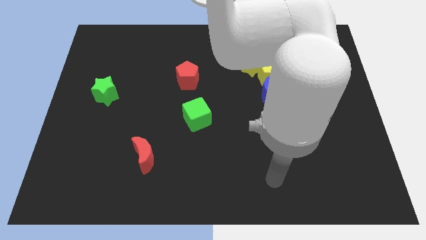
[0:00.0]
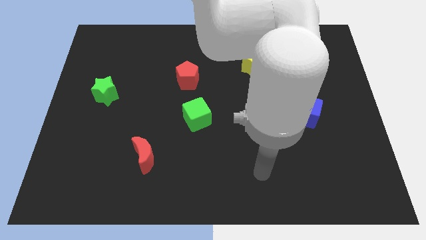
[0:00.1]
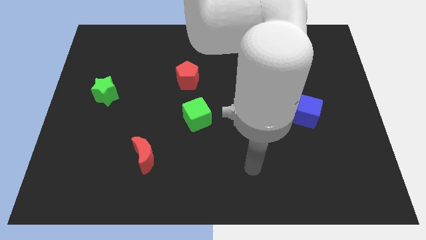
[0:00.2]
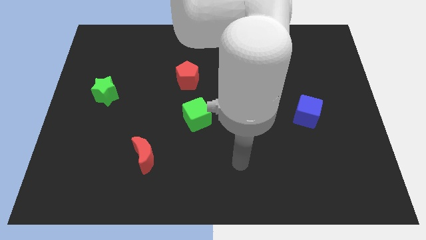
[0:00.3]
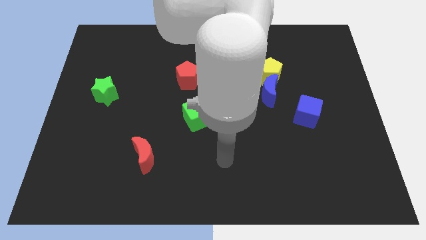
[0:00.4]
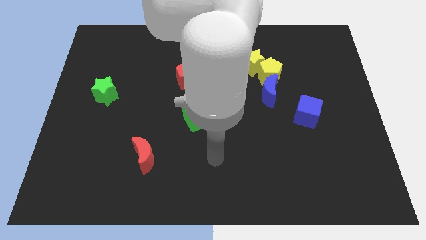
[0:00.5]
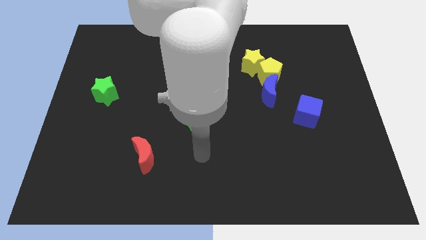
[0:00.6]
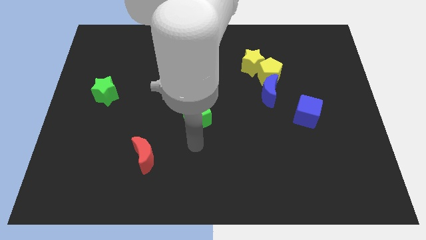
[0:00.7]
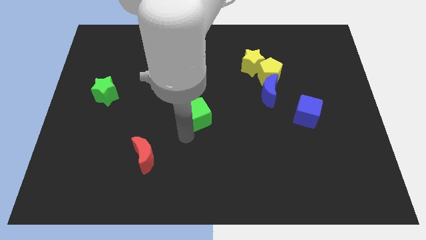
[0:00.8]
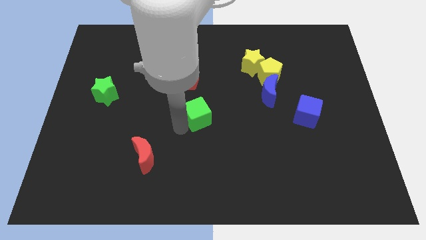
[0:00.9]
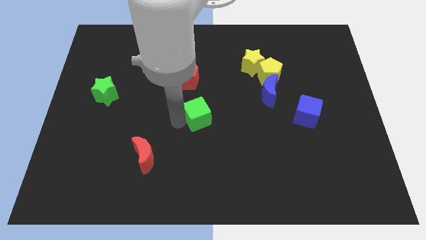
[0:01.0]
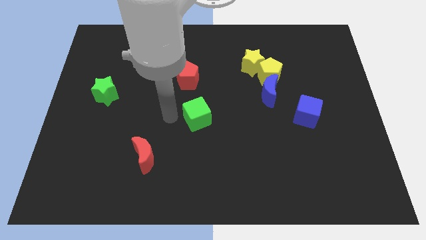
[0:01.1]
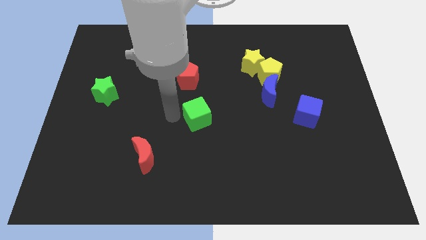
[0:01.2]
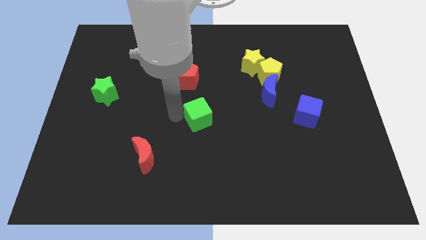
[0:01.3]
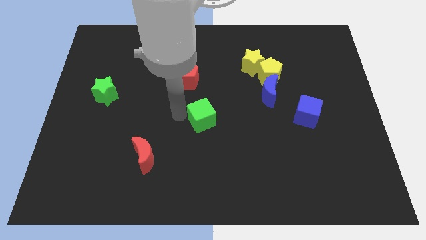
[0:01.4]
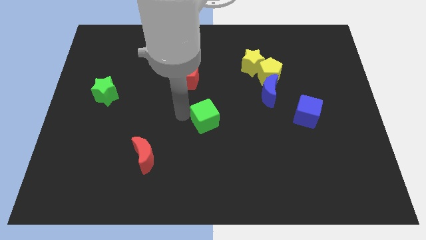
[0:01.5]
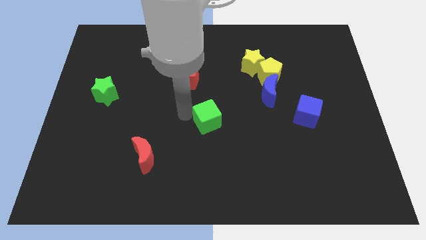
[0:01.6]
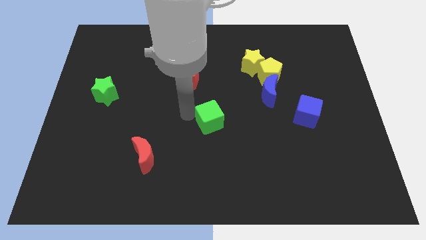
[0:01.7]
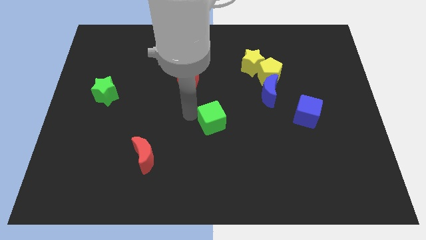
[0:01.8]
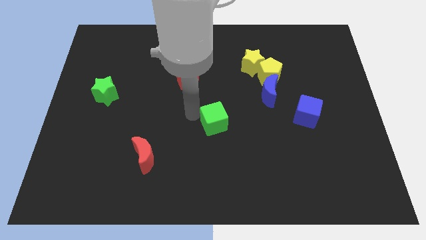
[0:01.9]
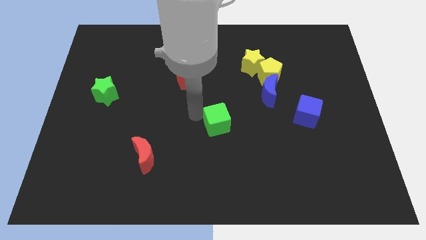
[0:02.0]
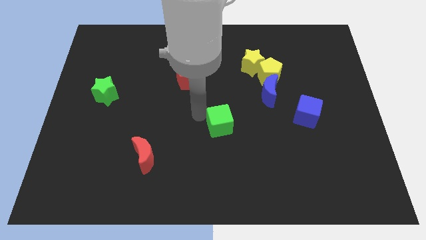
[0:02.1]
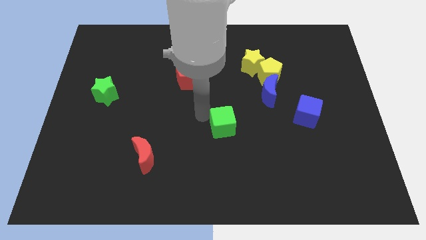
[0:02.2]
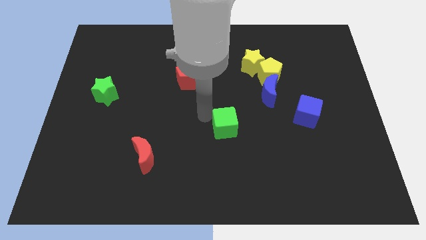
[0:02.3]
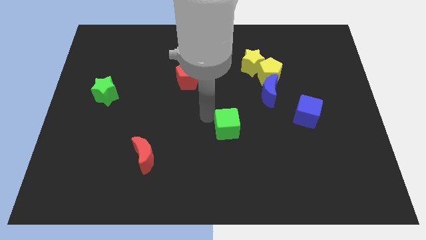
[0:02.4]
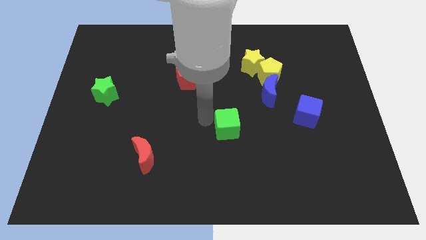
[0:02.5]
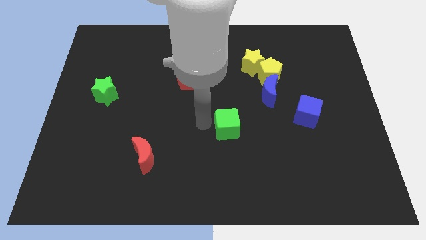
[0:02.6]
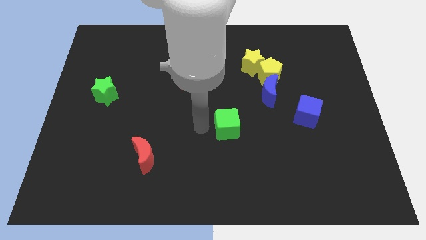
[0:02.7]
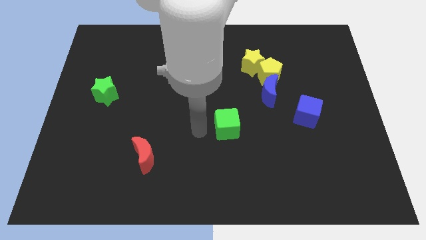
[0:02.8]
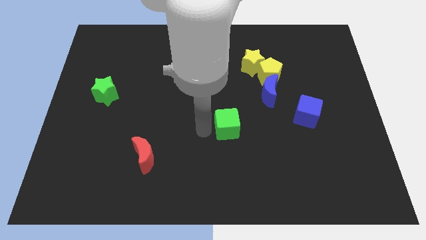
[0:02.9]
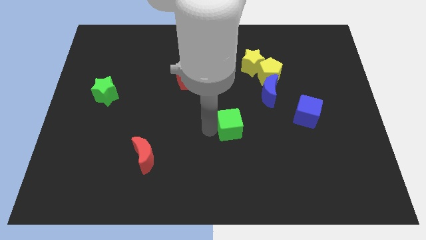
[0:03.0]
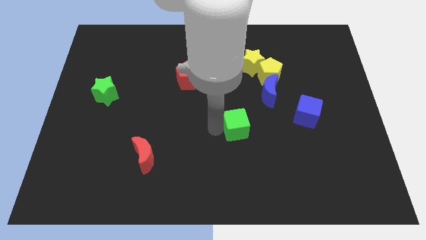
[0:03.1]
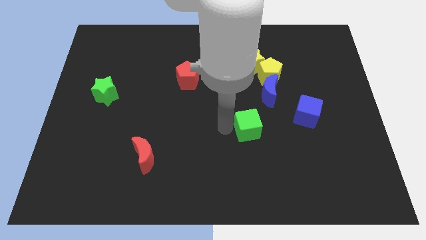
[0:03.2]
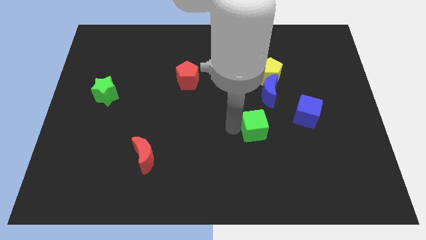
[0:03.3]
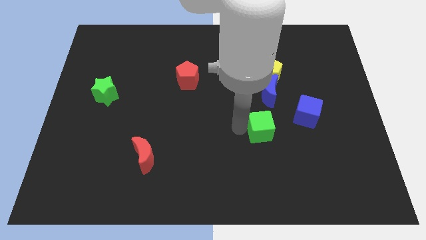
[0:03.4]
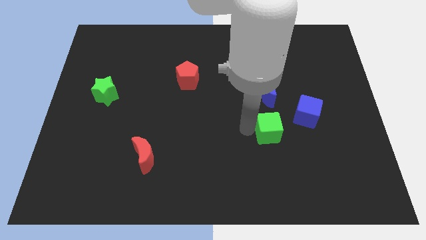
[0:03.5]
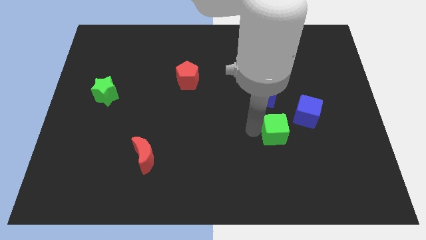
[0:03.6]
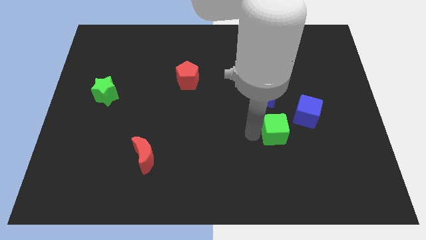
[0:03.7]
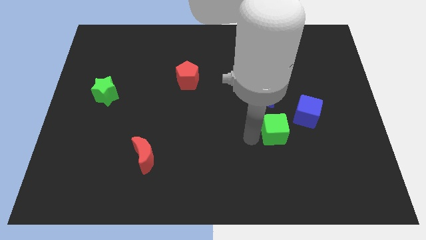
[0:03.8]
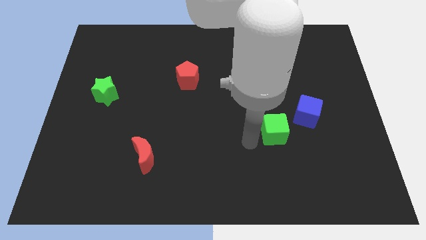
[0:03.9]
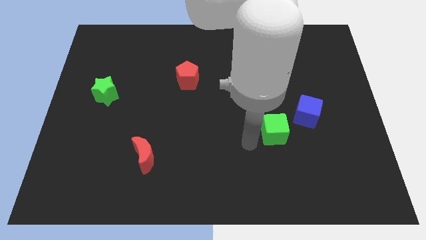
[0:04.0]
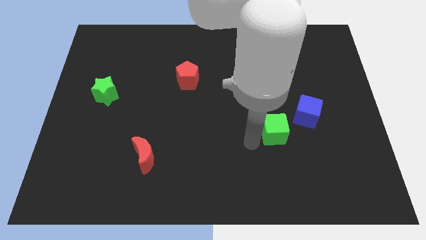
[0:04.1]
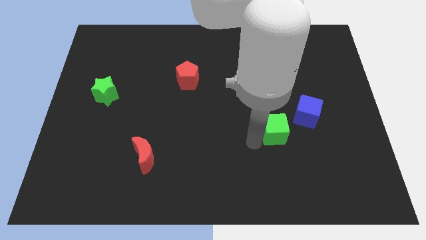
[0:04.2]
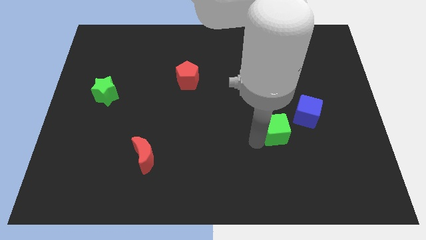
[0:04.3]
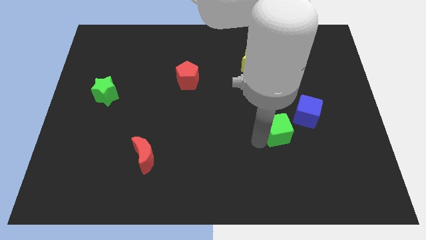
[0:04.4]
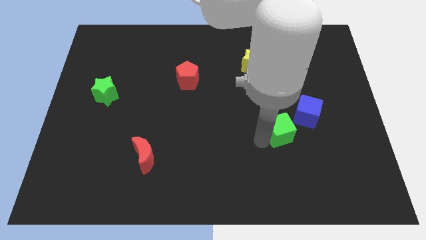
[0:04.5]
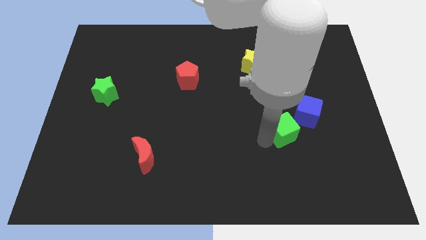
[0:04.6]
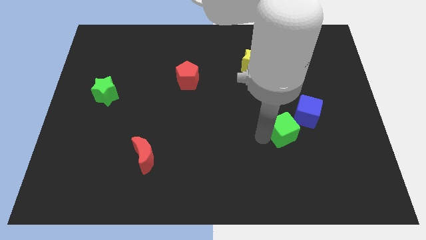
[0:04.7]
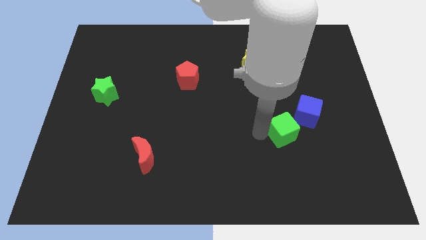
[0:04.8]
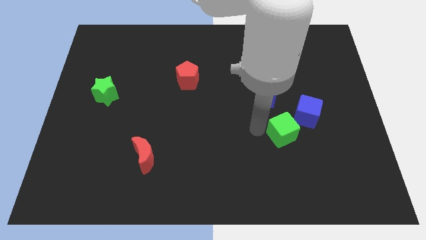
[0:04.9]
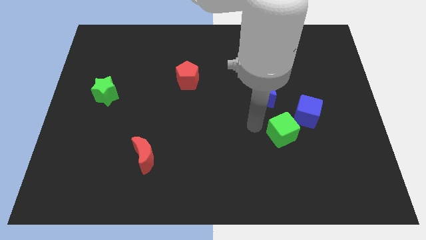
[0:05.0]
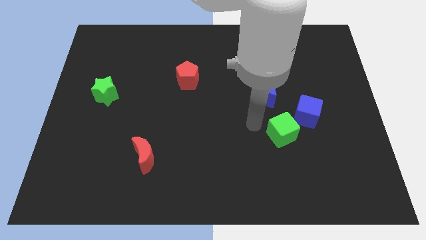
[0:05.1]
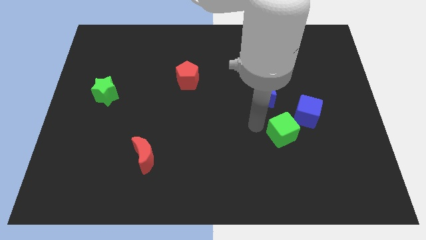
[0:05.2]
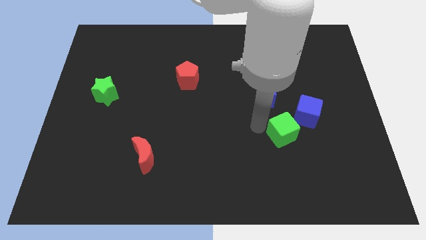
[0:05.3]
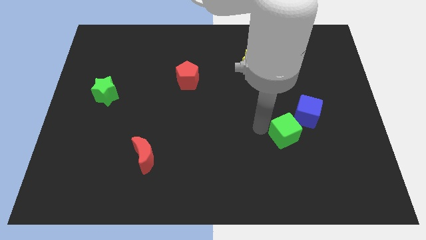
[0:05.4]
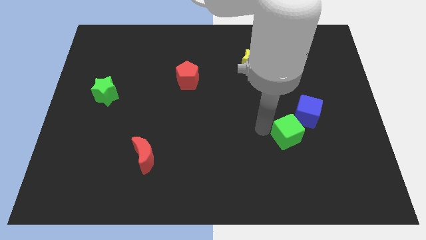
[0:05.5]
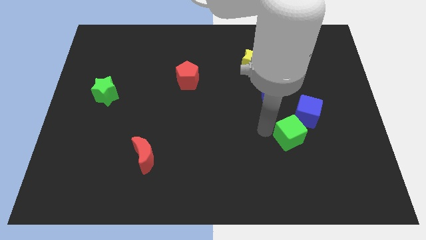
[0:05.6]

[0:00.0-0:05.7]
move the green cube right

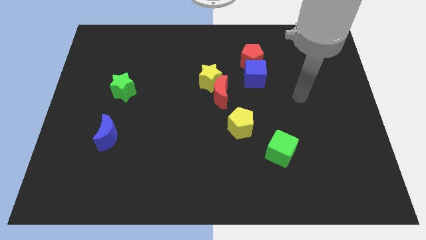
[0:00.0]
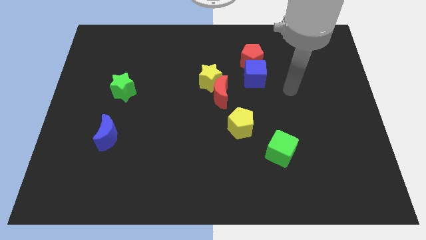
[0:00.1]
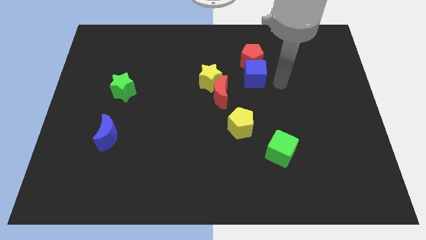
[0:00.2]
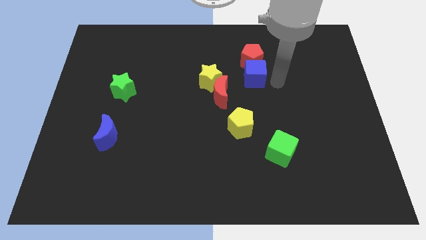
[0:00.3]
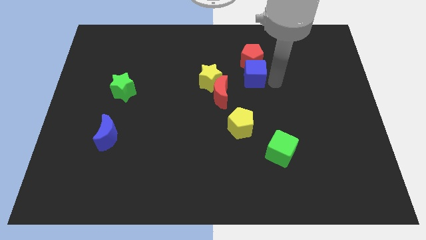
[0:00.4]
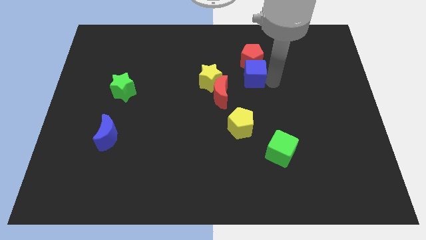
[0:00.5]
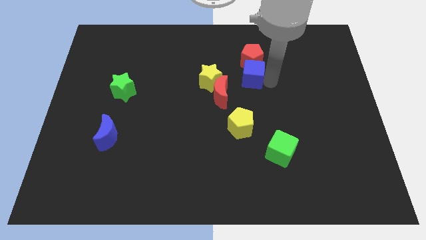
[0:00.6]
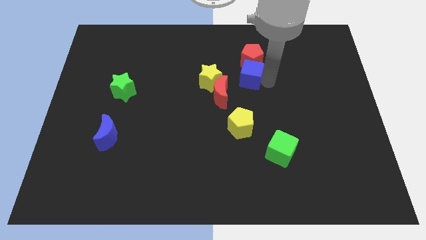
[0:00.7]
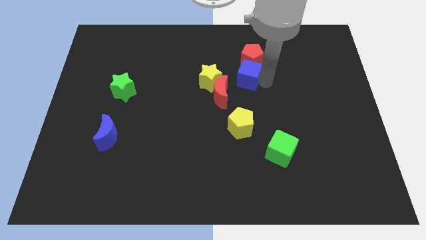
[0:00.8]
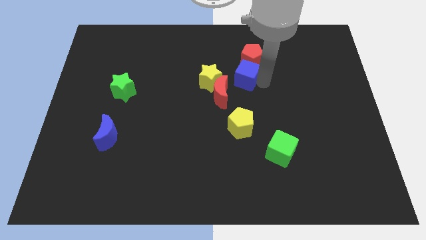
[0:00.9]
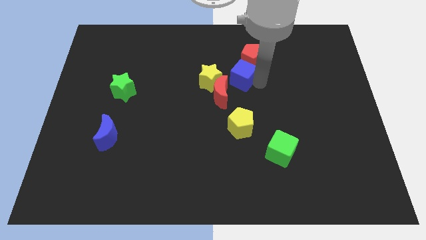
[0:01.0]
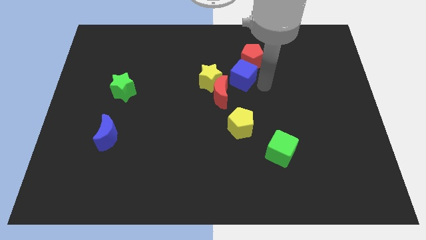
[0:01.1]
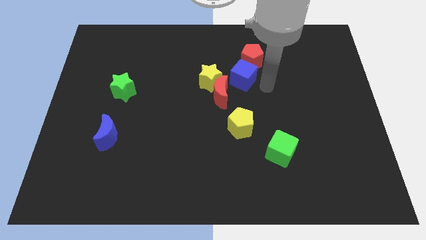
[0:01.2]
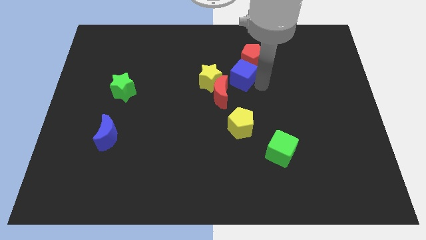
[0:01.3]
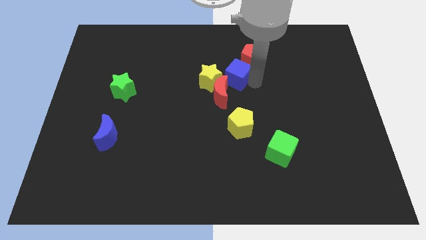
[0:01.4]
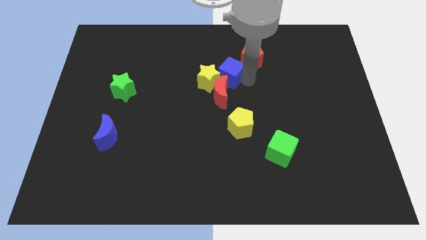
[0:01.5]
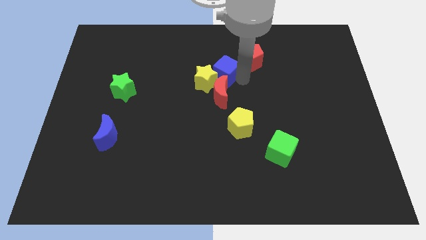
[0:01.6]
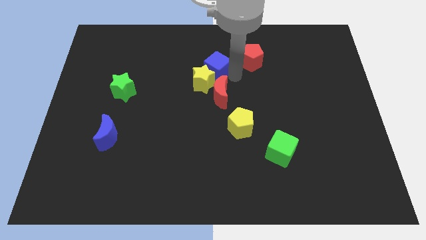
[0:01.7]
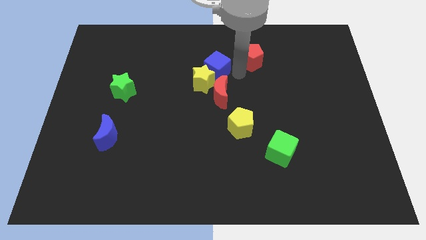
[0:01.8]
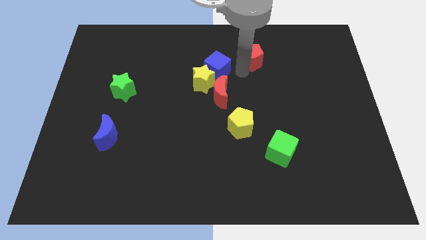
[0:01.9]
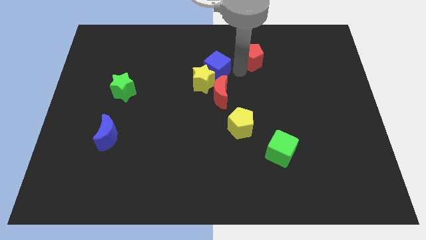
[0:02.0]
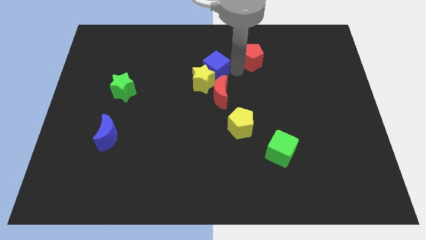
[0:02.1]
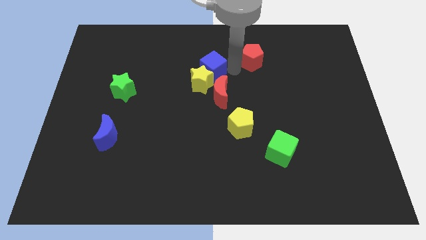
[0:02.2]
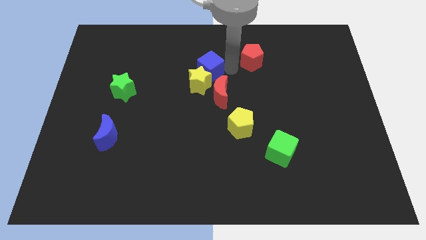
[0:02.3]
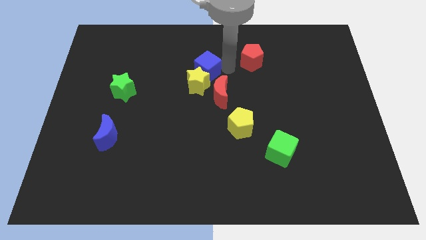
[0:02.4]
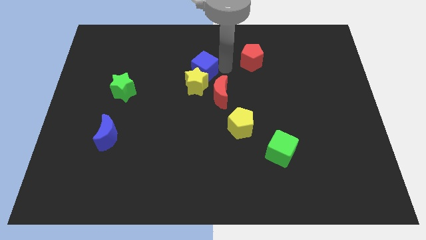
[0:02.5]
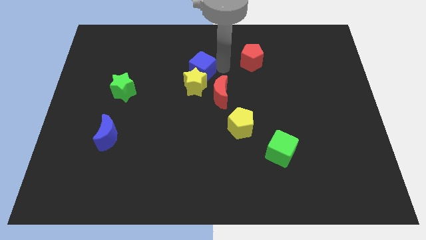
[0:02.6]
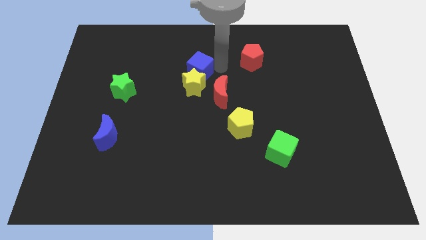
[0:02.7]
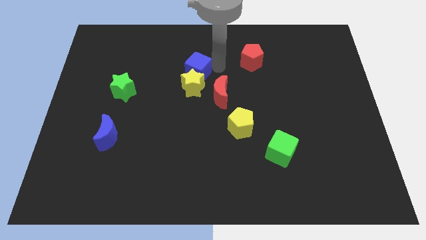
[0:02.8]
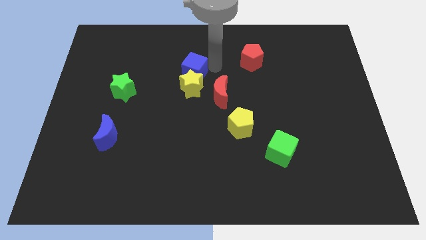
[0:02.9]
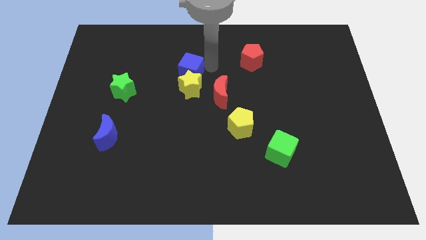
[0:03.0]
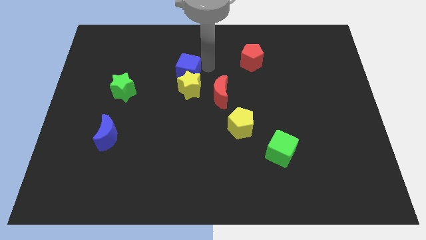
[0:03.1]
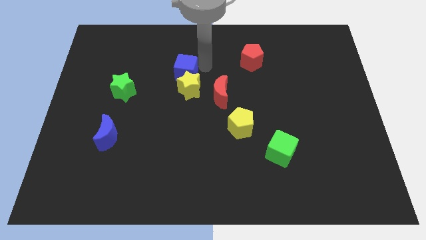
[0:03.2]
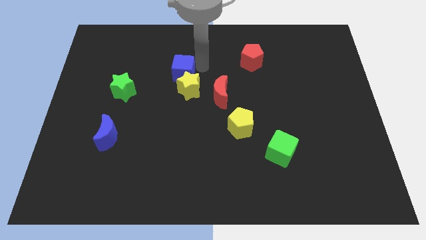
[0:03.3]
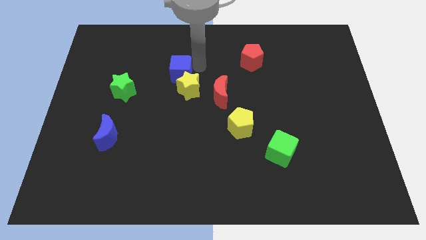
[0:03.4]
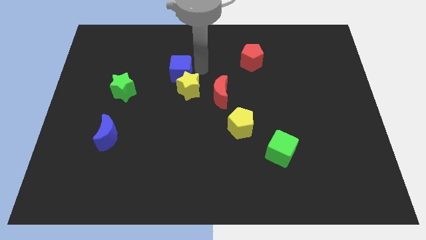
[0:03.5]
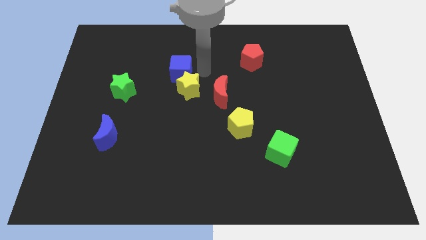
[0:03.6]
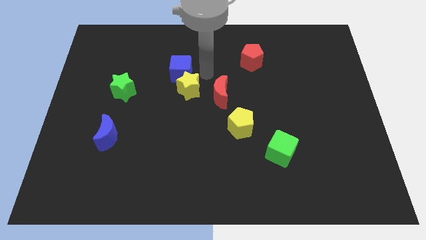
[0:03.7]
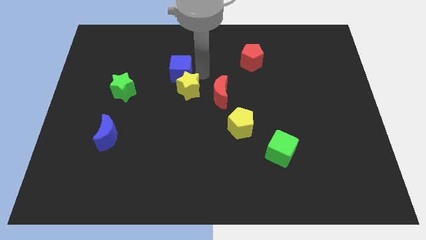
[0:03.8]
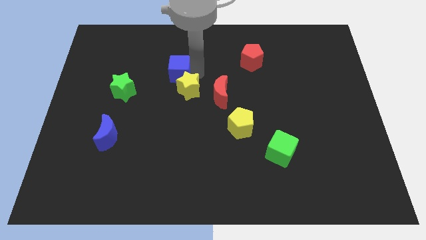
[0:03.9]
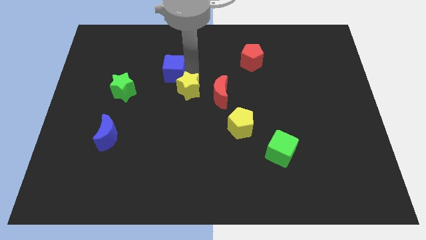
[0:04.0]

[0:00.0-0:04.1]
move the blue cube left
